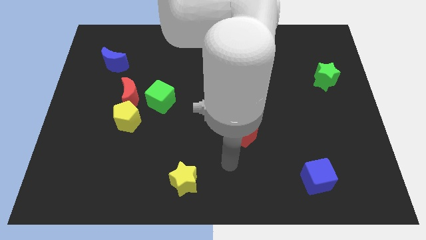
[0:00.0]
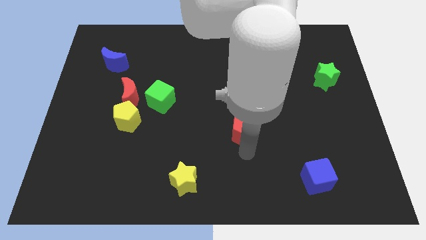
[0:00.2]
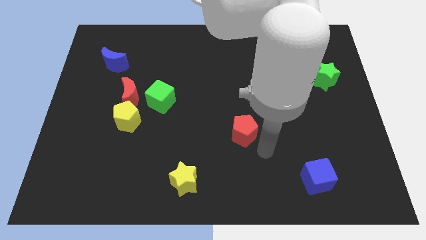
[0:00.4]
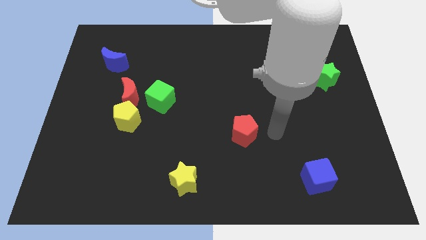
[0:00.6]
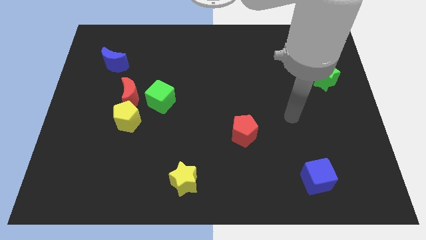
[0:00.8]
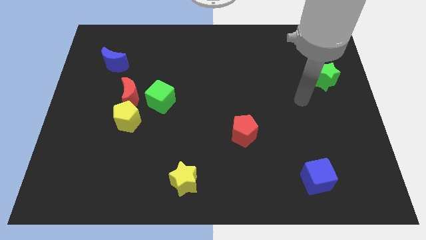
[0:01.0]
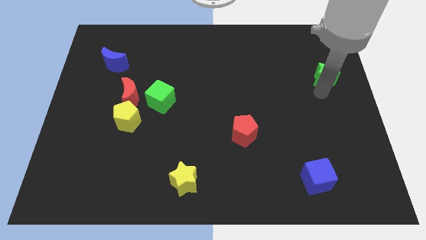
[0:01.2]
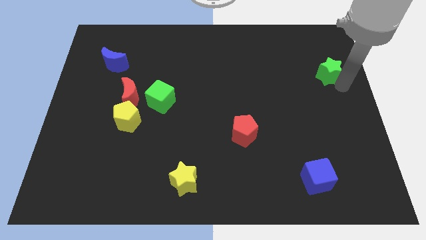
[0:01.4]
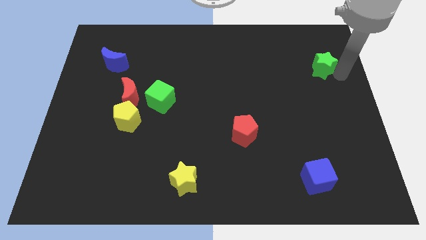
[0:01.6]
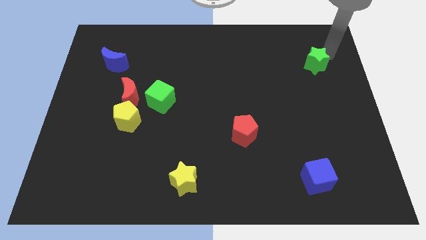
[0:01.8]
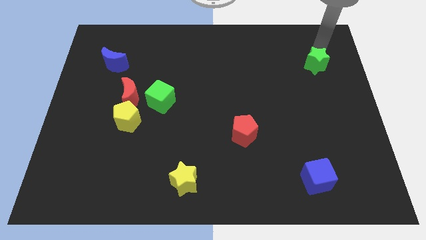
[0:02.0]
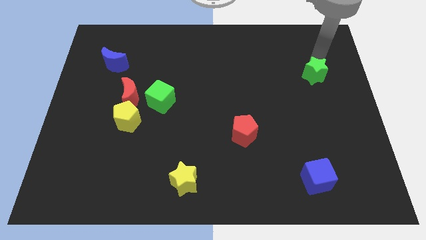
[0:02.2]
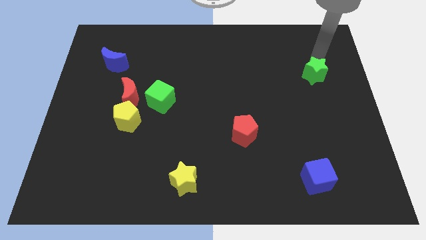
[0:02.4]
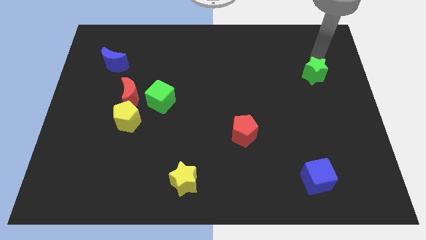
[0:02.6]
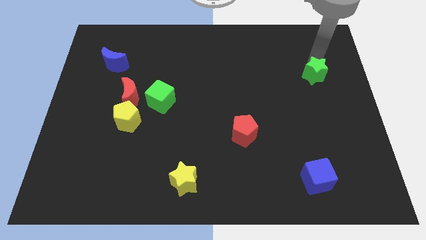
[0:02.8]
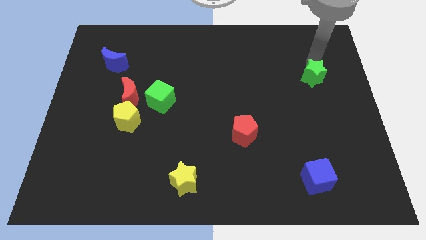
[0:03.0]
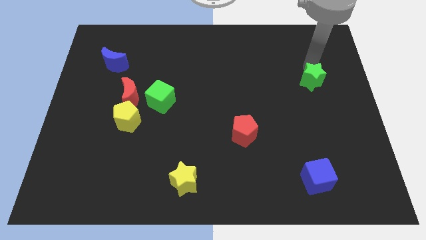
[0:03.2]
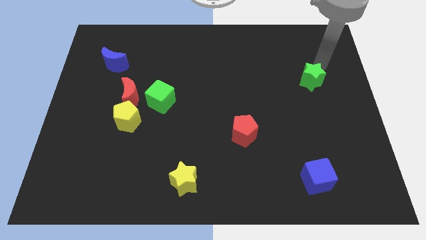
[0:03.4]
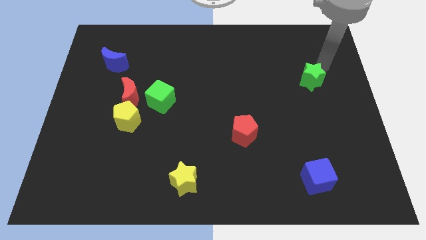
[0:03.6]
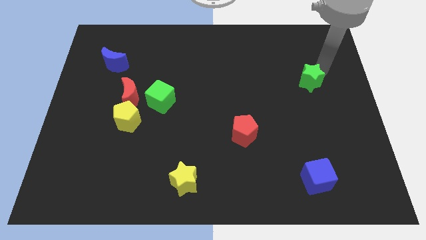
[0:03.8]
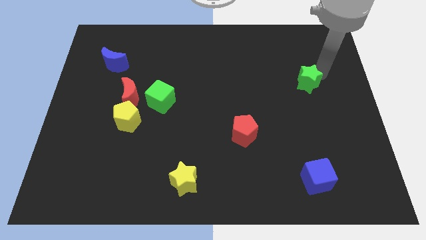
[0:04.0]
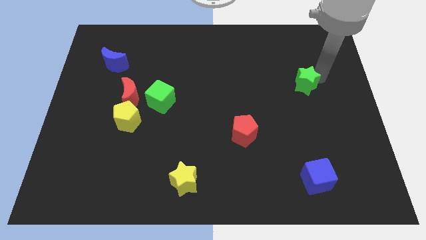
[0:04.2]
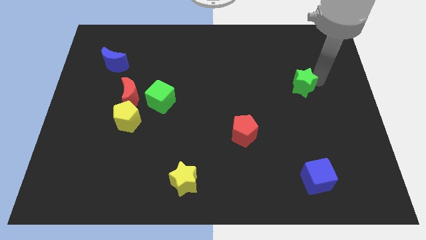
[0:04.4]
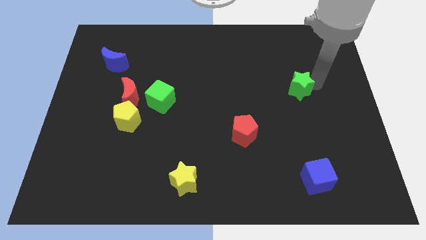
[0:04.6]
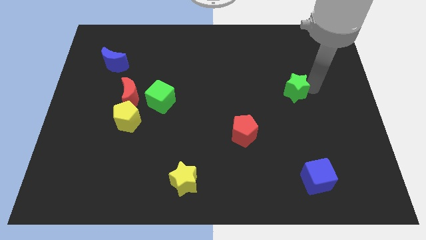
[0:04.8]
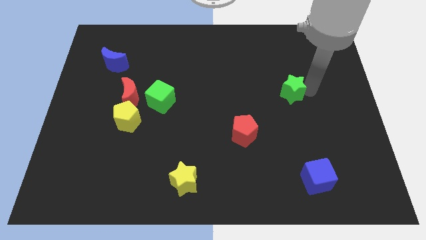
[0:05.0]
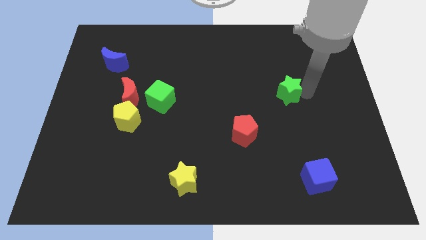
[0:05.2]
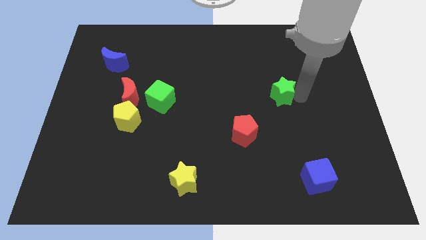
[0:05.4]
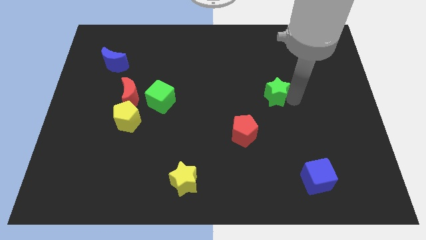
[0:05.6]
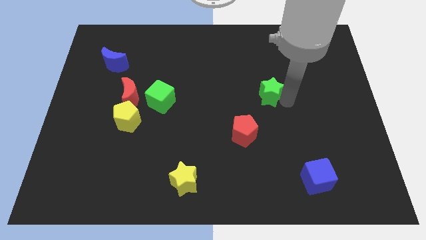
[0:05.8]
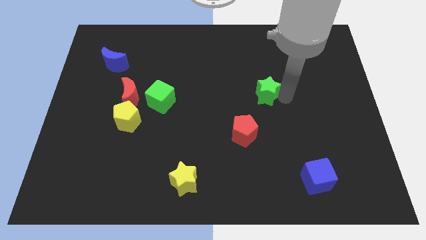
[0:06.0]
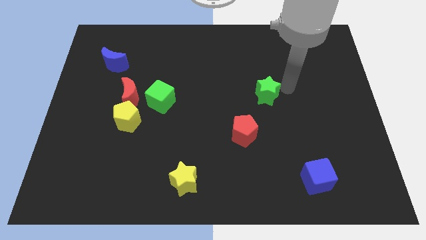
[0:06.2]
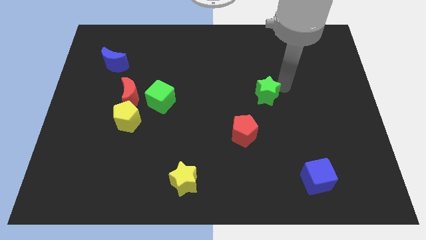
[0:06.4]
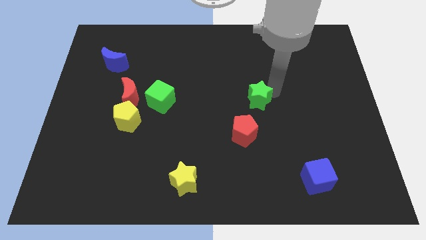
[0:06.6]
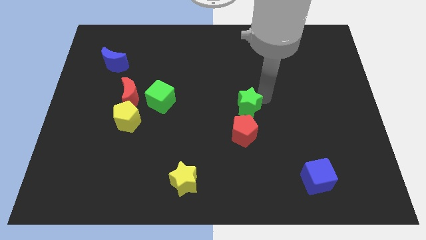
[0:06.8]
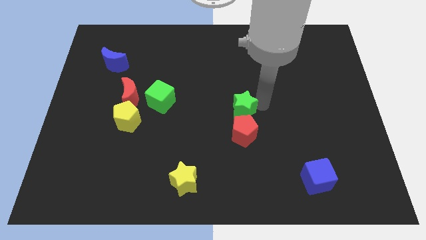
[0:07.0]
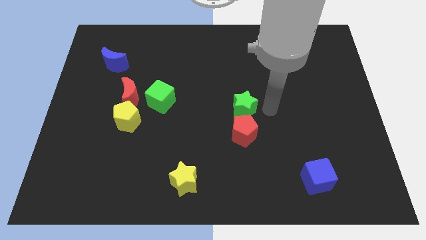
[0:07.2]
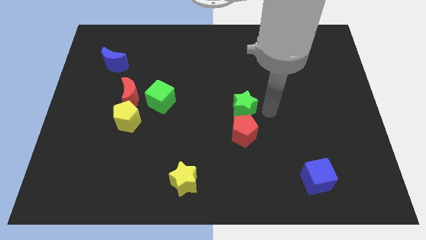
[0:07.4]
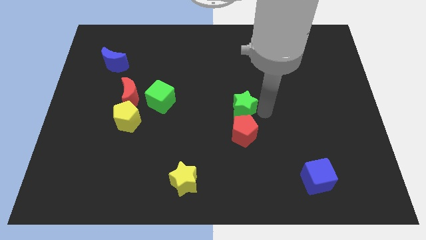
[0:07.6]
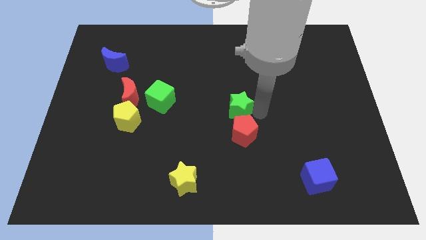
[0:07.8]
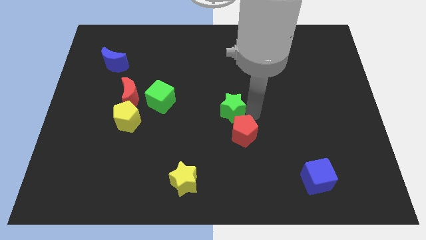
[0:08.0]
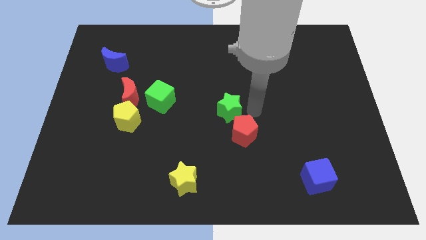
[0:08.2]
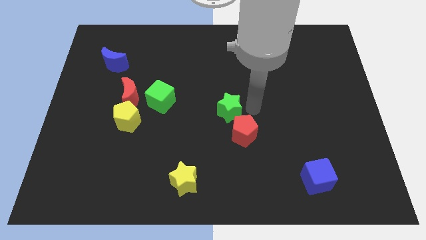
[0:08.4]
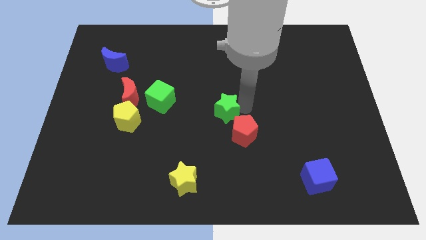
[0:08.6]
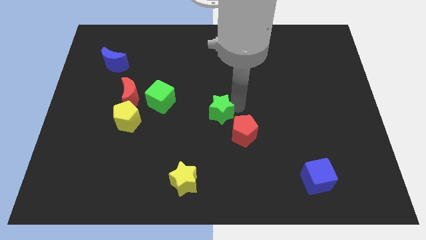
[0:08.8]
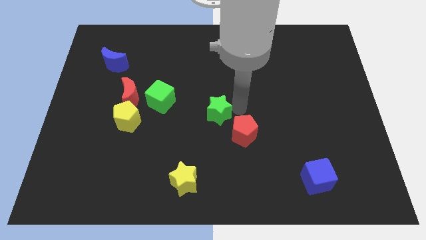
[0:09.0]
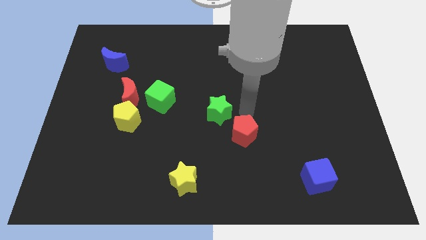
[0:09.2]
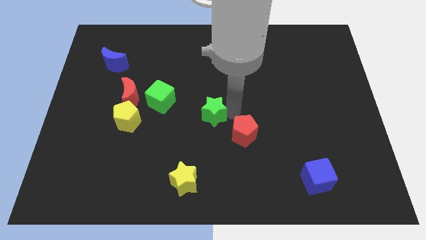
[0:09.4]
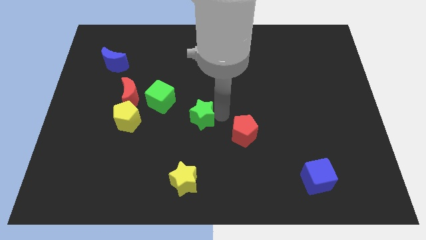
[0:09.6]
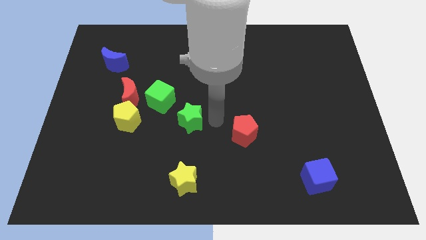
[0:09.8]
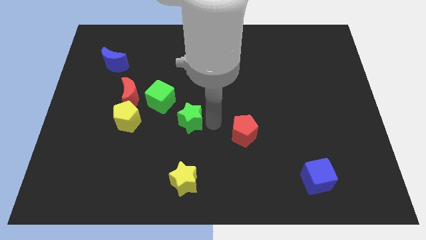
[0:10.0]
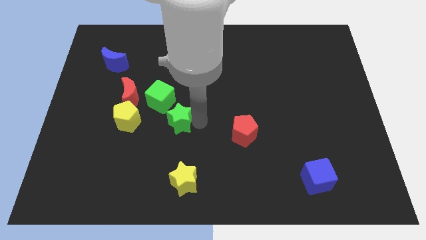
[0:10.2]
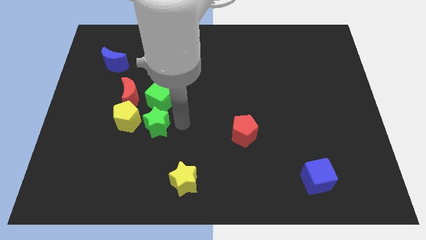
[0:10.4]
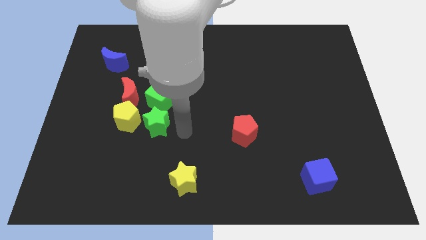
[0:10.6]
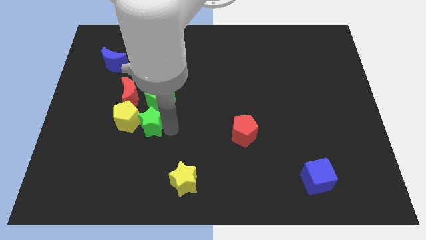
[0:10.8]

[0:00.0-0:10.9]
push the green star to the yellow pentagon

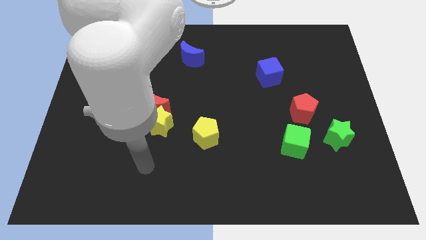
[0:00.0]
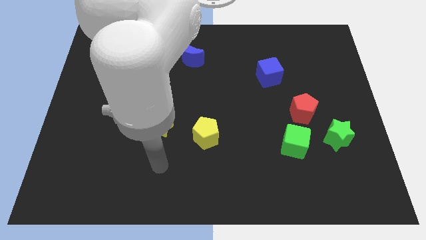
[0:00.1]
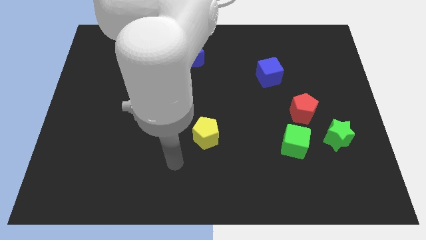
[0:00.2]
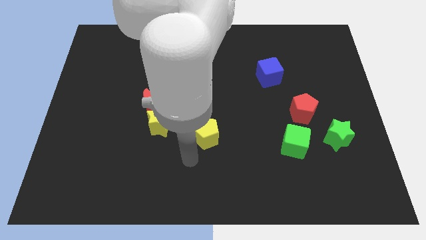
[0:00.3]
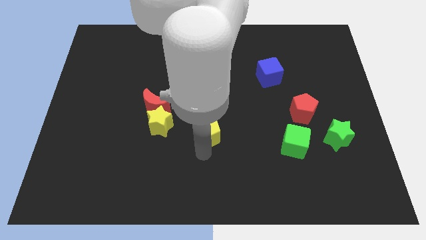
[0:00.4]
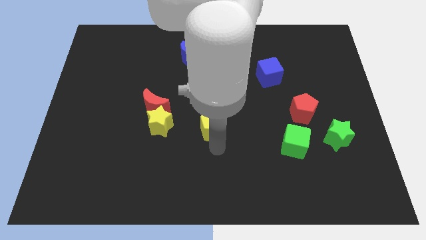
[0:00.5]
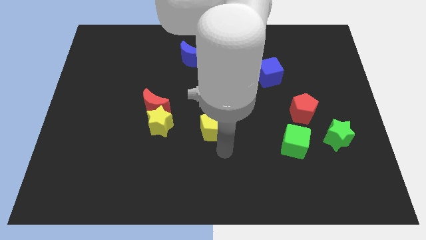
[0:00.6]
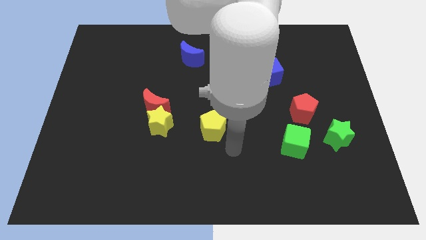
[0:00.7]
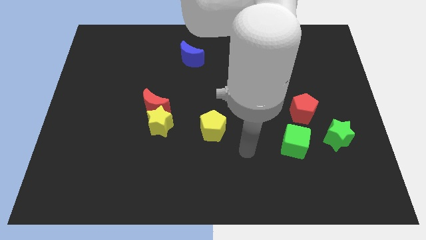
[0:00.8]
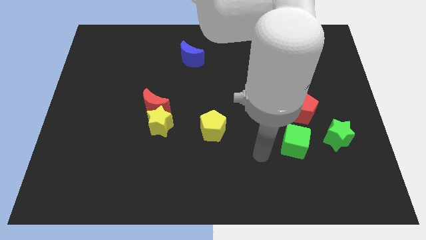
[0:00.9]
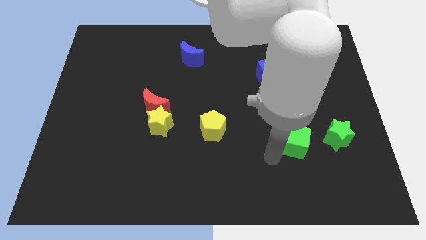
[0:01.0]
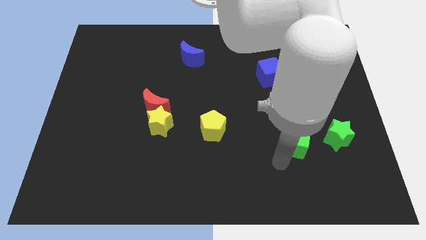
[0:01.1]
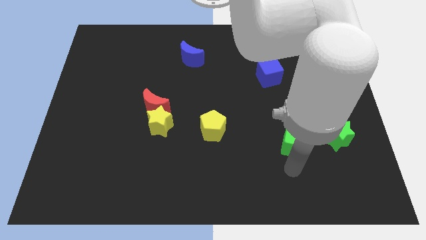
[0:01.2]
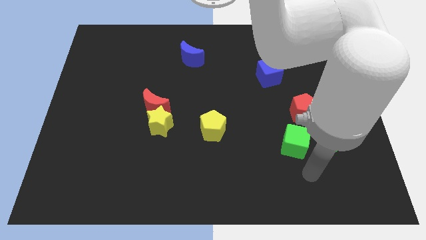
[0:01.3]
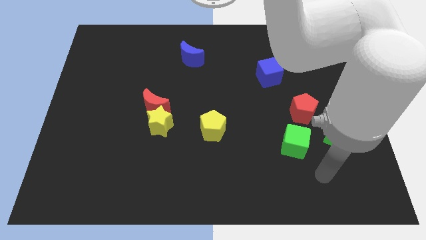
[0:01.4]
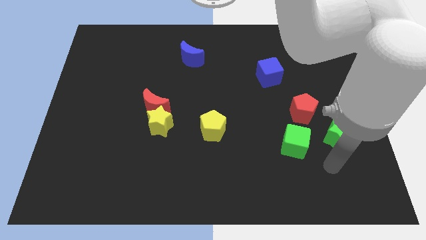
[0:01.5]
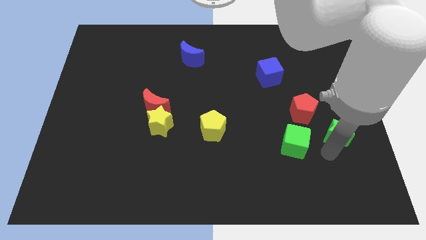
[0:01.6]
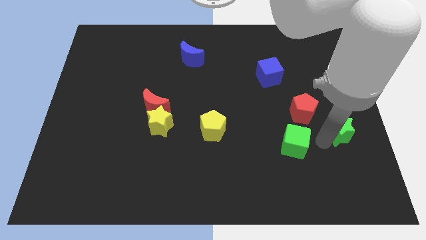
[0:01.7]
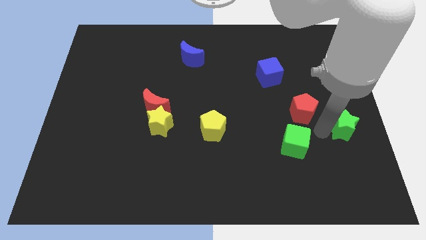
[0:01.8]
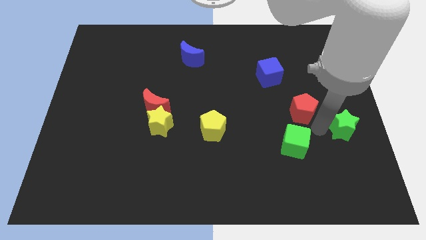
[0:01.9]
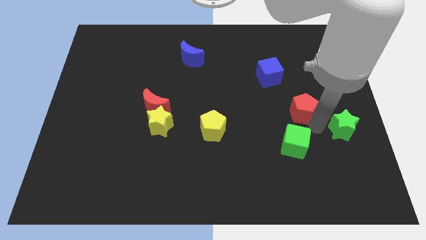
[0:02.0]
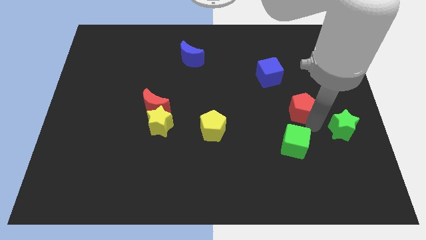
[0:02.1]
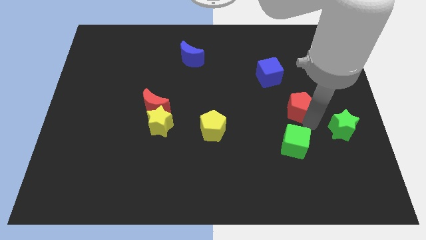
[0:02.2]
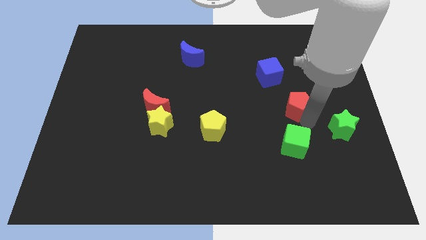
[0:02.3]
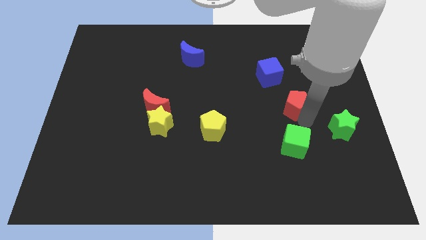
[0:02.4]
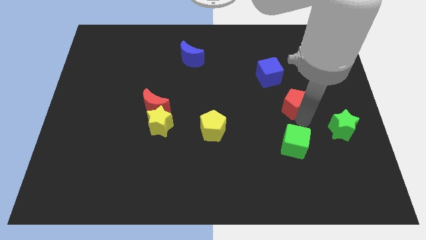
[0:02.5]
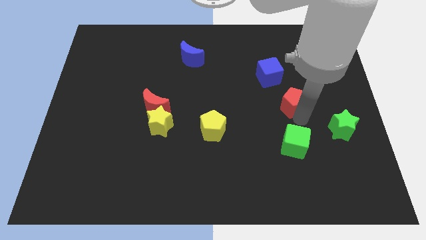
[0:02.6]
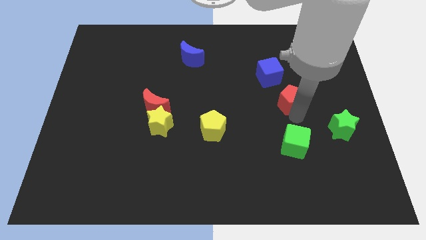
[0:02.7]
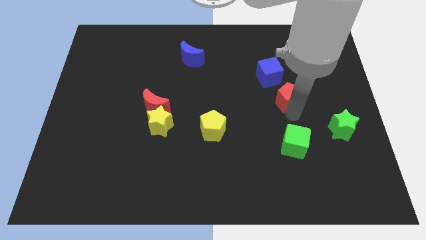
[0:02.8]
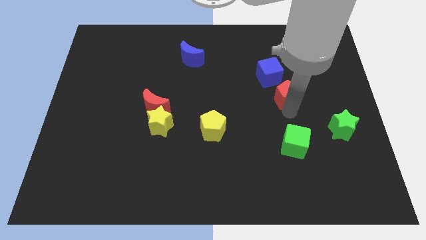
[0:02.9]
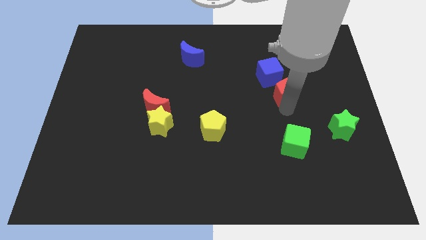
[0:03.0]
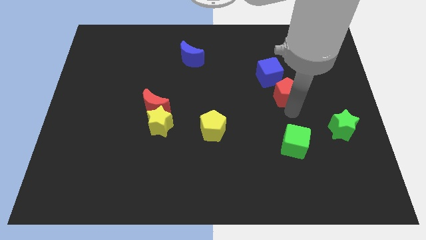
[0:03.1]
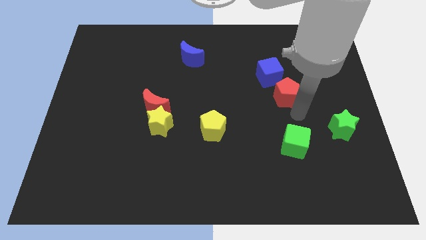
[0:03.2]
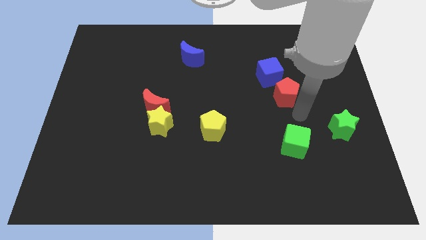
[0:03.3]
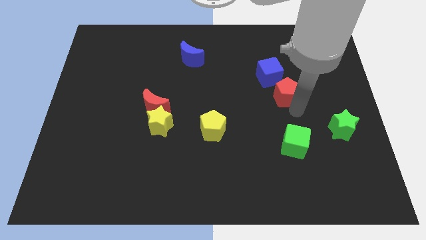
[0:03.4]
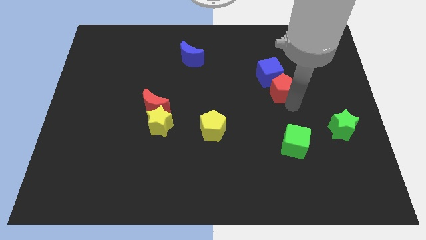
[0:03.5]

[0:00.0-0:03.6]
push the red pentagon to the blue cube
